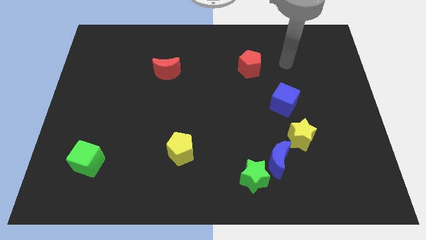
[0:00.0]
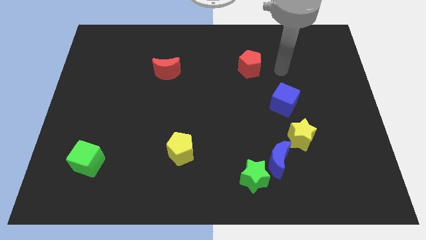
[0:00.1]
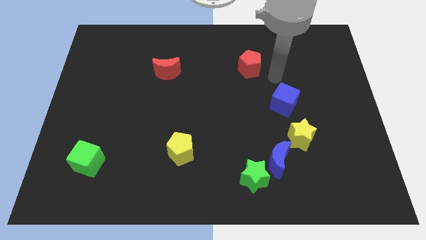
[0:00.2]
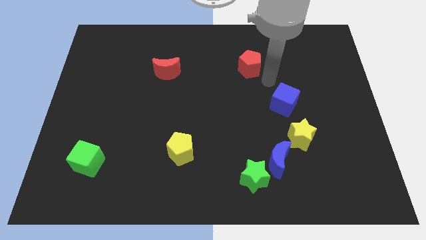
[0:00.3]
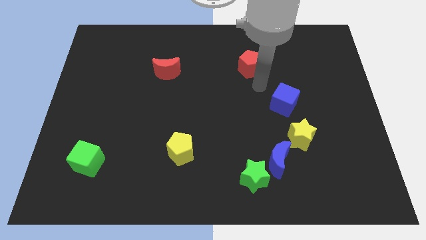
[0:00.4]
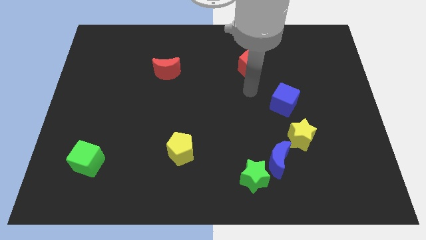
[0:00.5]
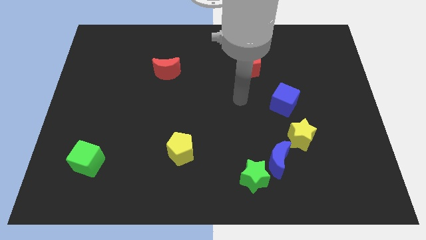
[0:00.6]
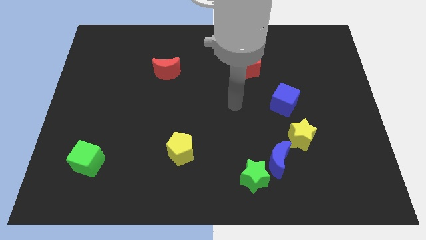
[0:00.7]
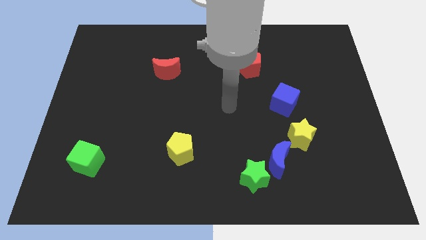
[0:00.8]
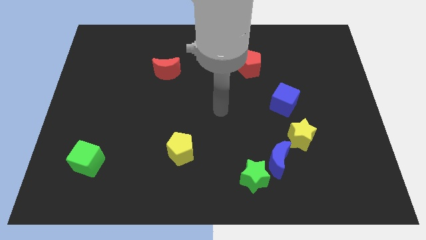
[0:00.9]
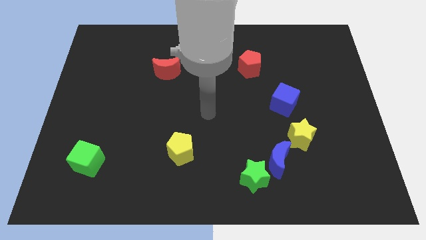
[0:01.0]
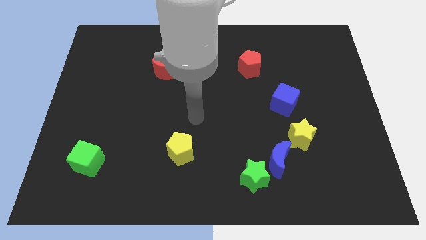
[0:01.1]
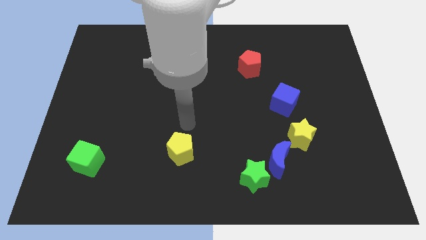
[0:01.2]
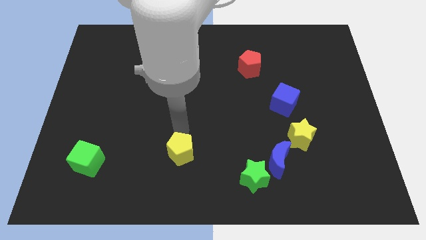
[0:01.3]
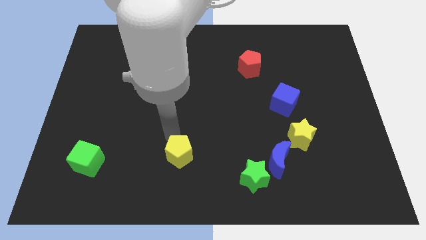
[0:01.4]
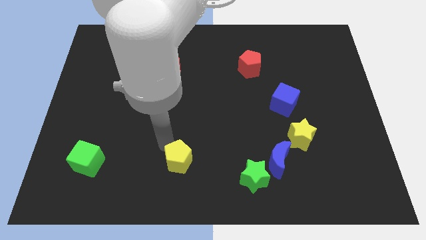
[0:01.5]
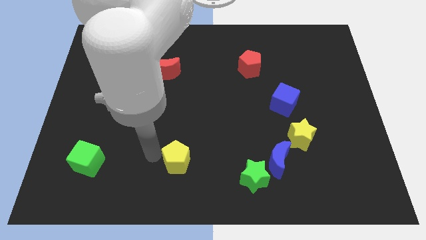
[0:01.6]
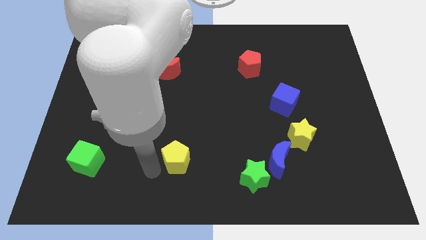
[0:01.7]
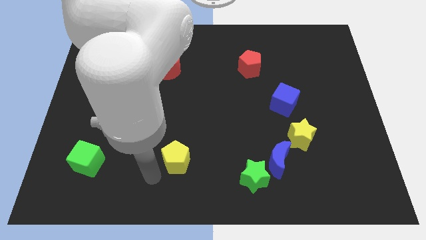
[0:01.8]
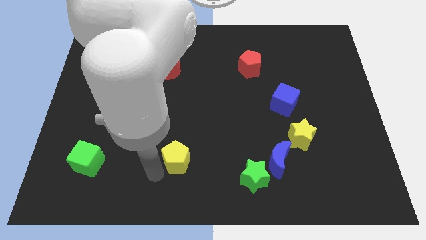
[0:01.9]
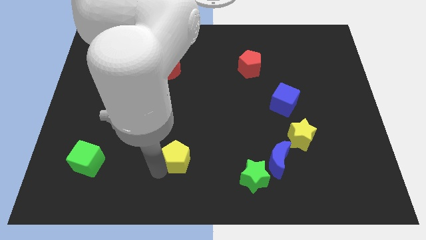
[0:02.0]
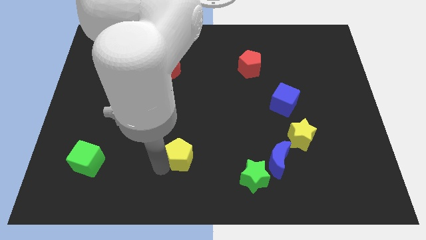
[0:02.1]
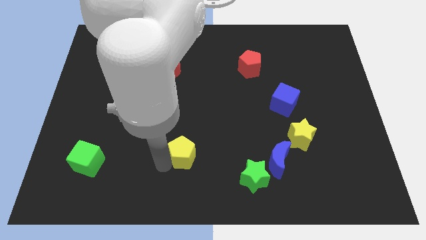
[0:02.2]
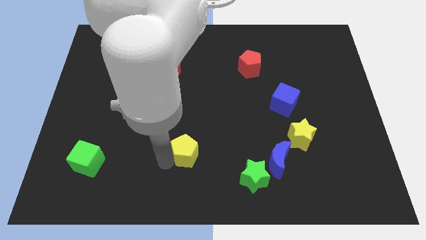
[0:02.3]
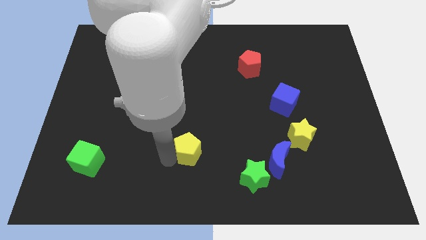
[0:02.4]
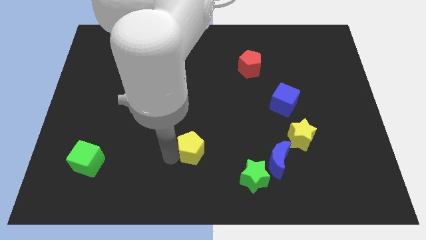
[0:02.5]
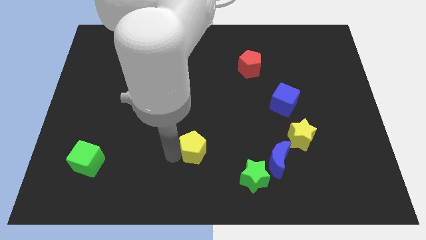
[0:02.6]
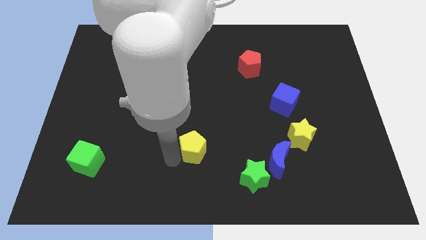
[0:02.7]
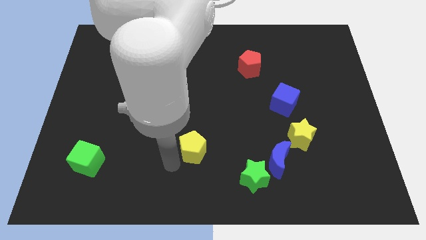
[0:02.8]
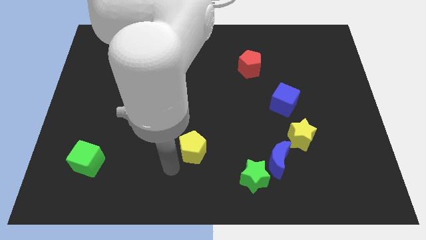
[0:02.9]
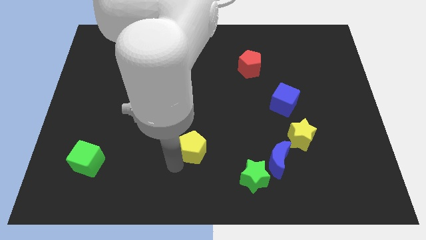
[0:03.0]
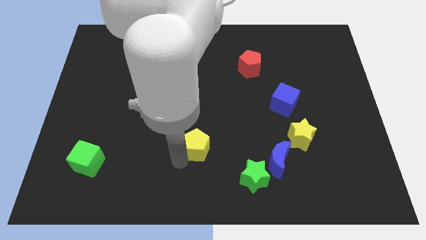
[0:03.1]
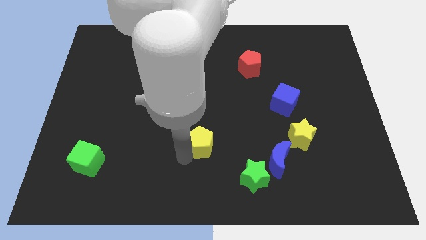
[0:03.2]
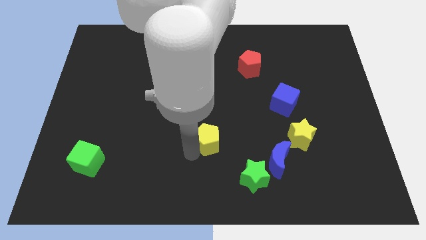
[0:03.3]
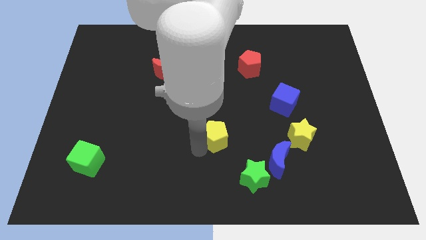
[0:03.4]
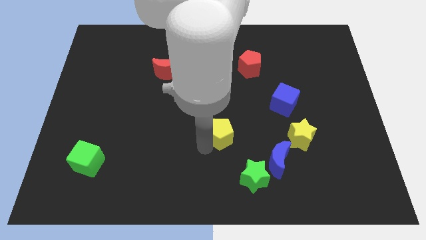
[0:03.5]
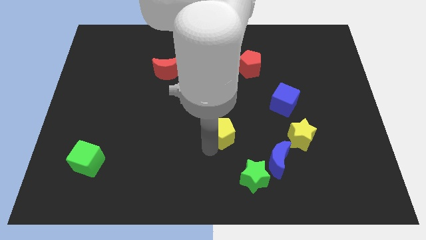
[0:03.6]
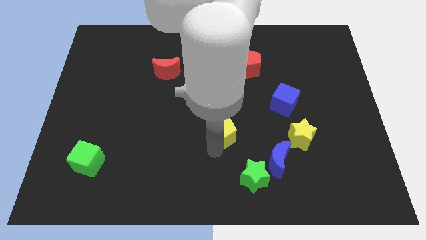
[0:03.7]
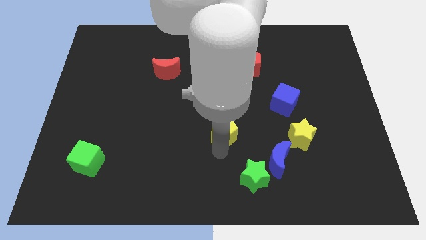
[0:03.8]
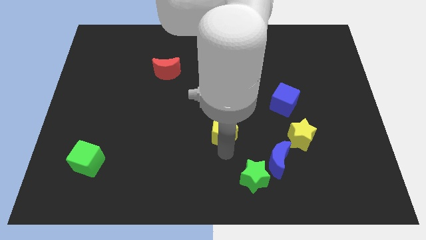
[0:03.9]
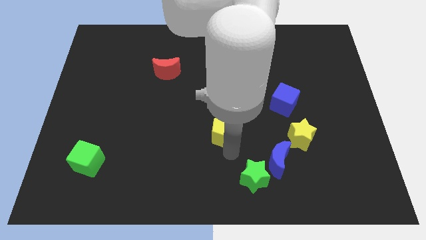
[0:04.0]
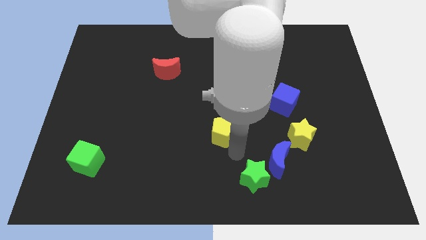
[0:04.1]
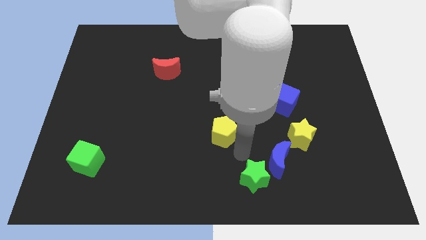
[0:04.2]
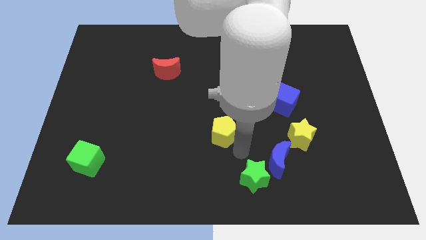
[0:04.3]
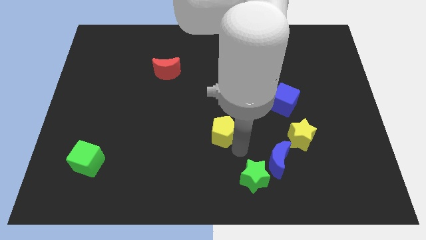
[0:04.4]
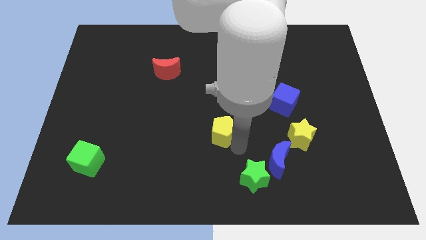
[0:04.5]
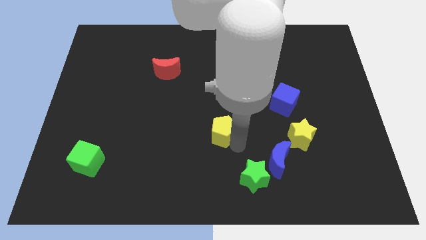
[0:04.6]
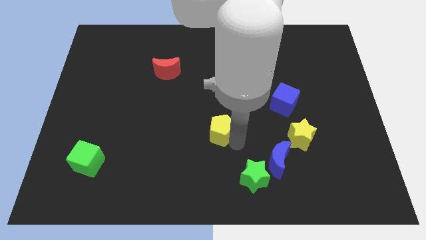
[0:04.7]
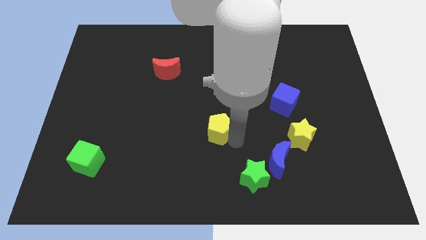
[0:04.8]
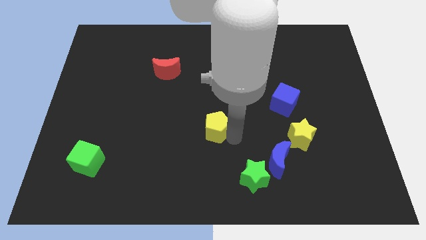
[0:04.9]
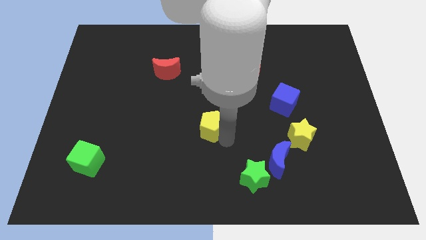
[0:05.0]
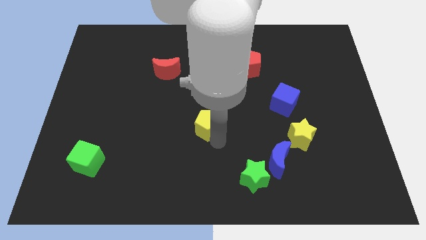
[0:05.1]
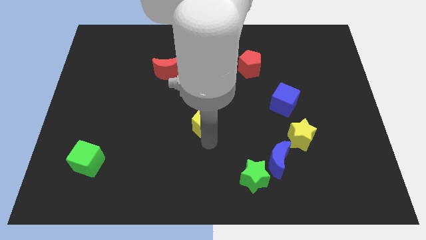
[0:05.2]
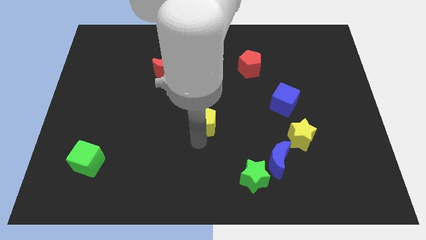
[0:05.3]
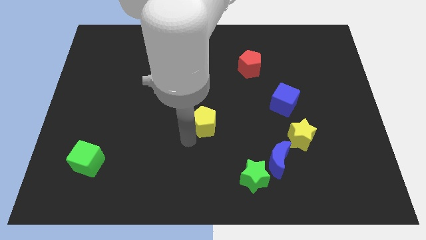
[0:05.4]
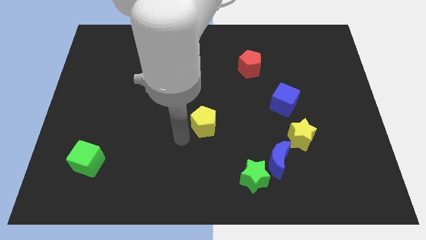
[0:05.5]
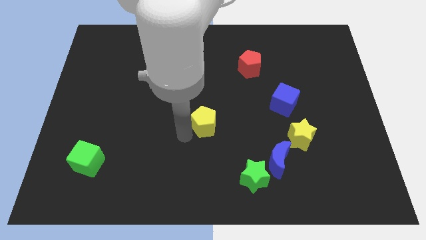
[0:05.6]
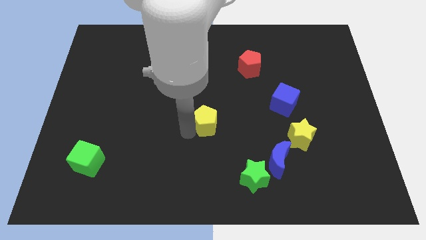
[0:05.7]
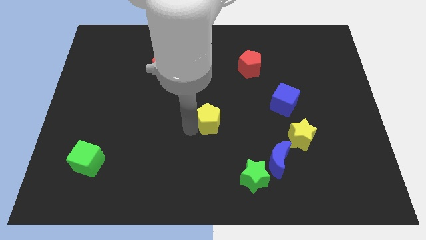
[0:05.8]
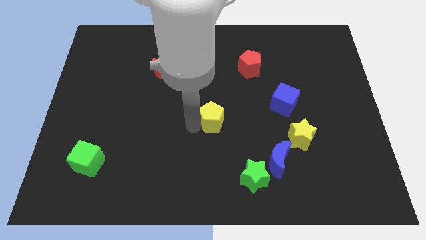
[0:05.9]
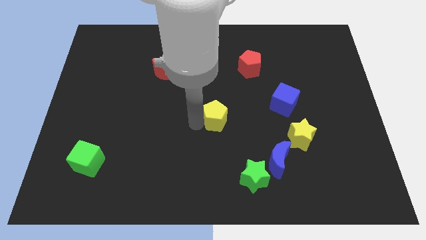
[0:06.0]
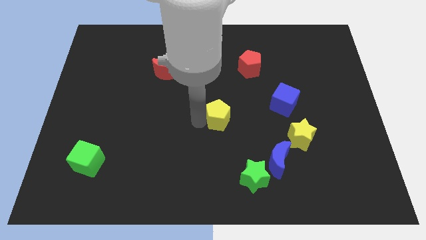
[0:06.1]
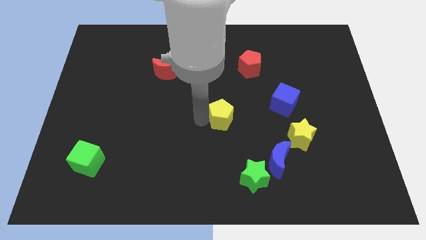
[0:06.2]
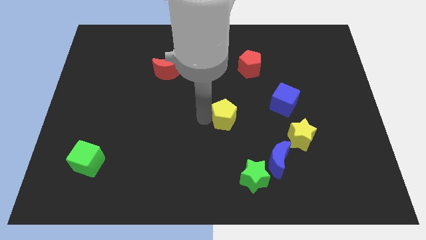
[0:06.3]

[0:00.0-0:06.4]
move the yellow pentagon just left of the blue cube
